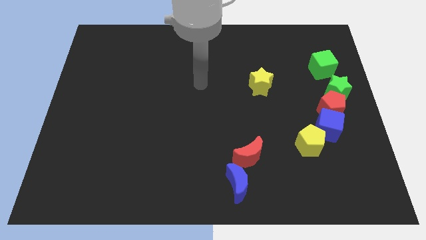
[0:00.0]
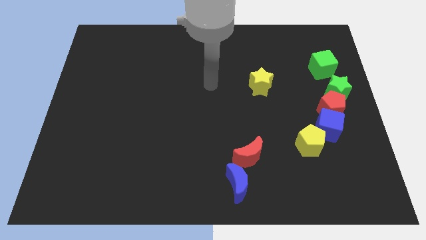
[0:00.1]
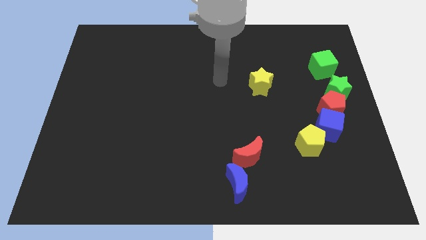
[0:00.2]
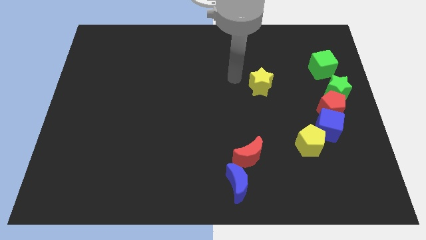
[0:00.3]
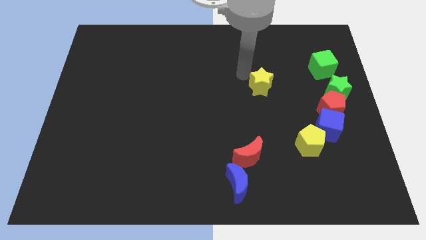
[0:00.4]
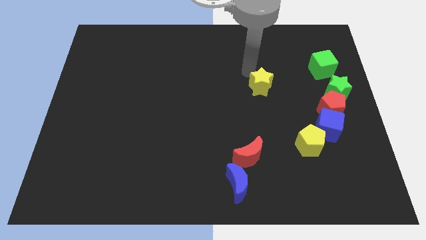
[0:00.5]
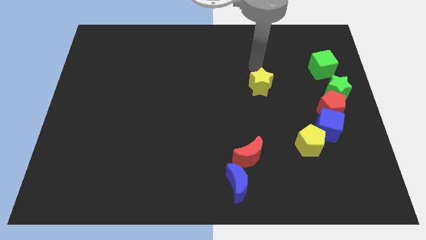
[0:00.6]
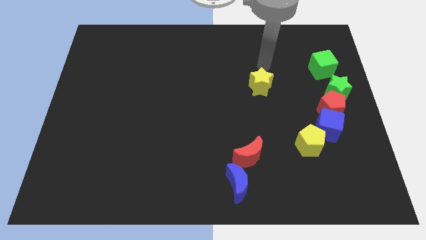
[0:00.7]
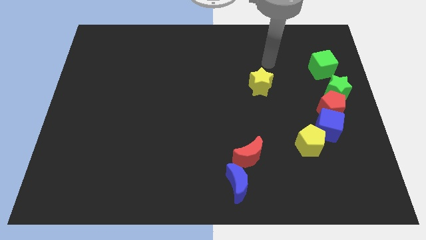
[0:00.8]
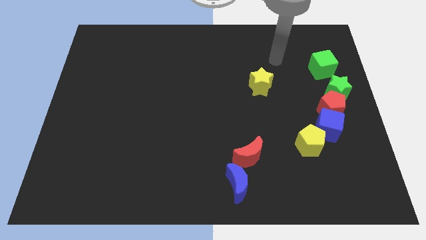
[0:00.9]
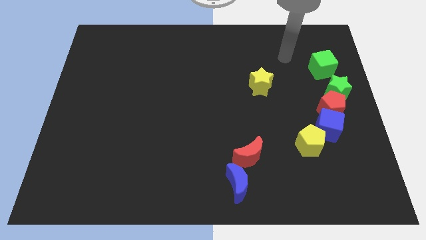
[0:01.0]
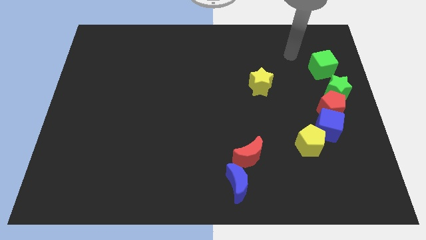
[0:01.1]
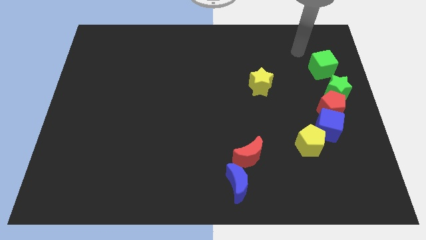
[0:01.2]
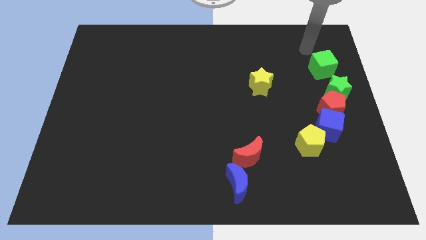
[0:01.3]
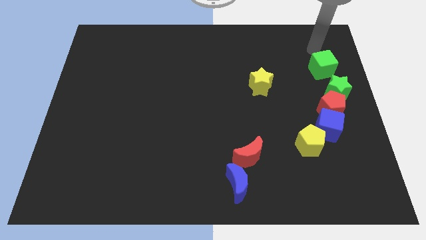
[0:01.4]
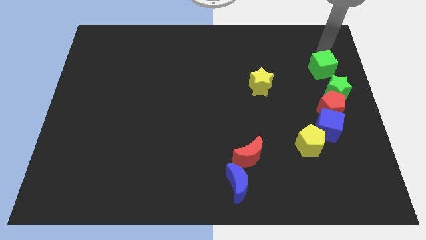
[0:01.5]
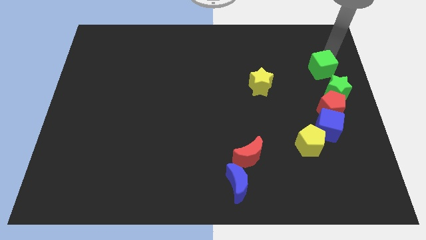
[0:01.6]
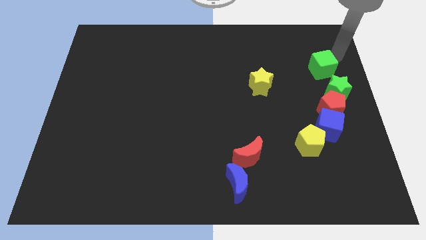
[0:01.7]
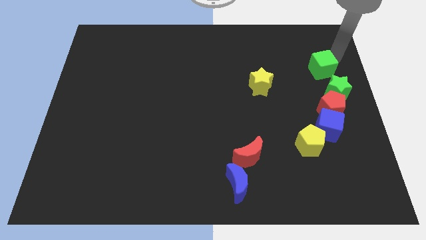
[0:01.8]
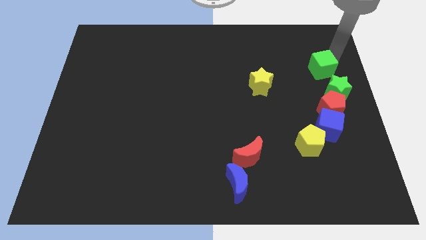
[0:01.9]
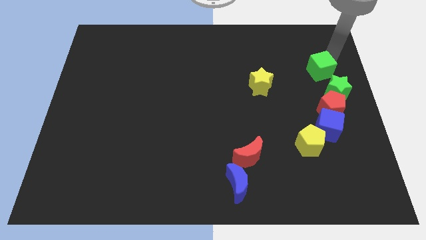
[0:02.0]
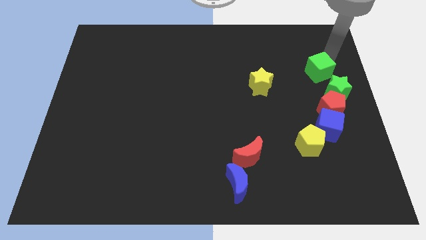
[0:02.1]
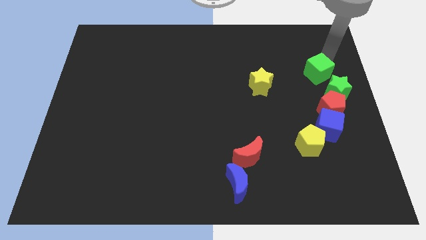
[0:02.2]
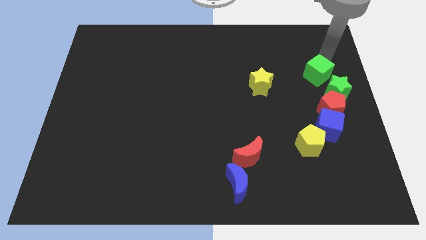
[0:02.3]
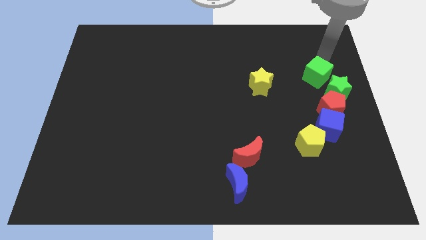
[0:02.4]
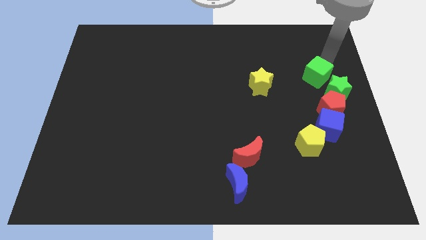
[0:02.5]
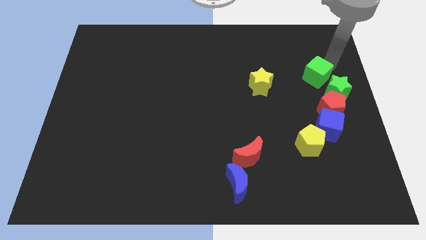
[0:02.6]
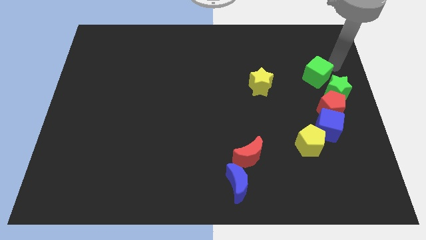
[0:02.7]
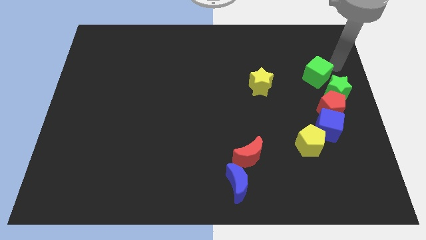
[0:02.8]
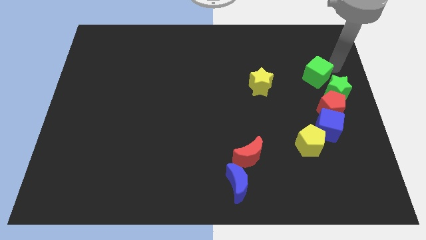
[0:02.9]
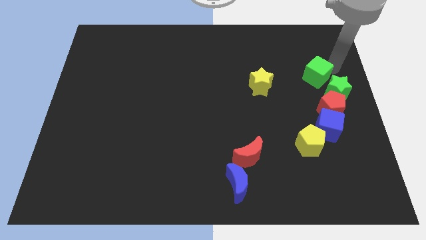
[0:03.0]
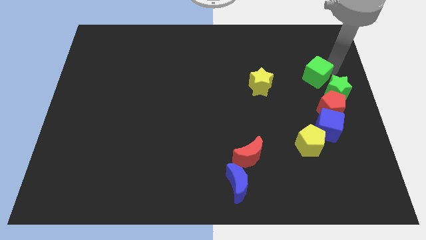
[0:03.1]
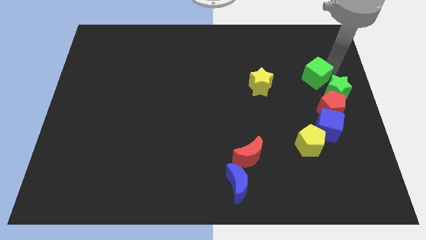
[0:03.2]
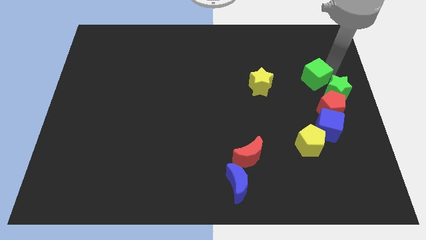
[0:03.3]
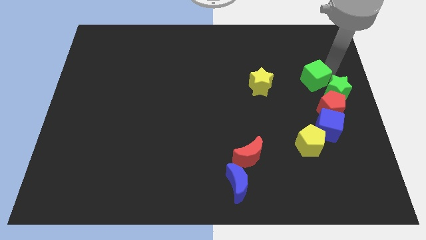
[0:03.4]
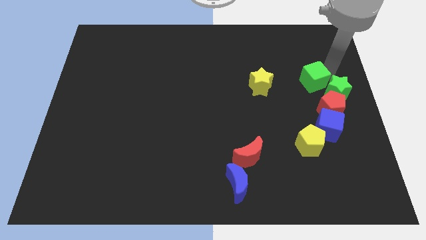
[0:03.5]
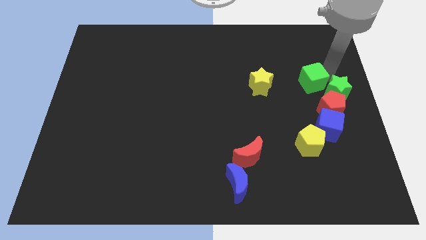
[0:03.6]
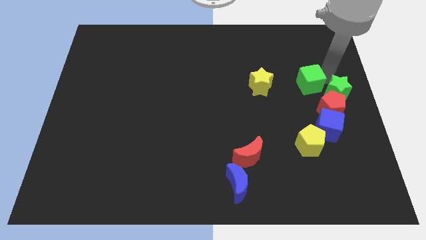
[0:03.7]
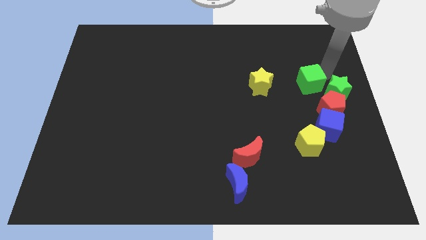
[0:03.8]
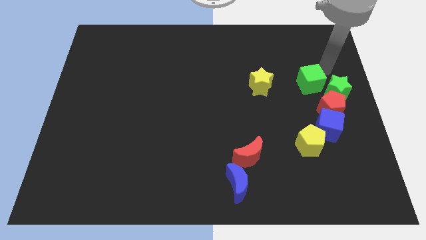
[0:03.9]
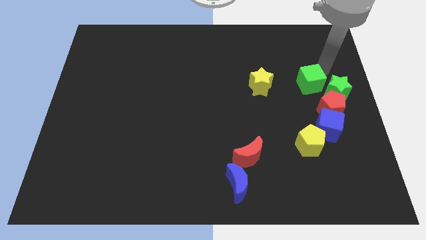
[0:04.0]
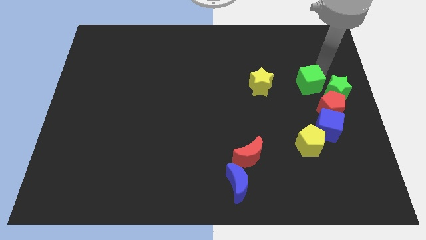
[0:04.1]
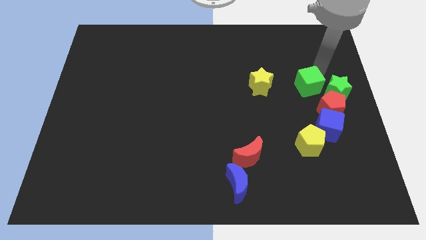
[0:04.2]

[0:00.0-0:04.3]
slightly slide the green cube down and left

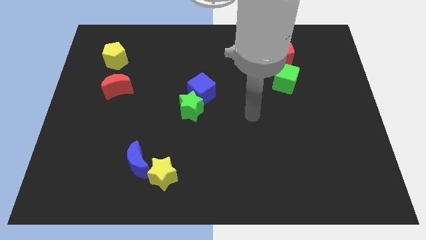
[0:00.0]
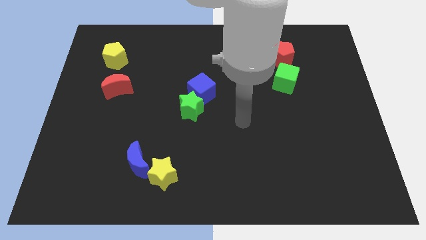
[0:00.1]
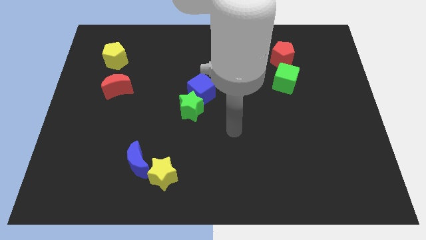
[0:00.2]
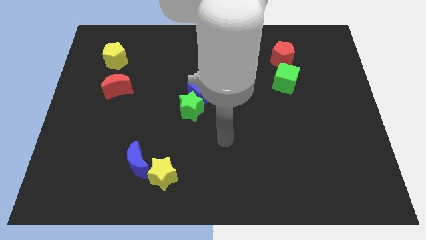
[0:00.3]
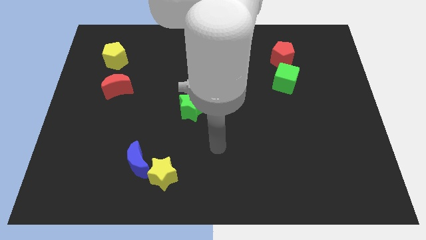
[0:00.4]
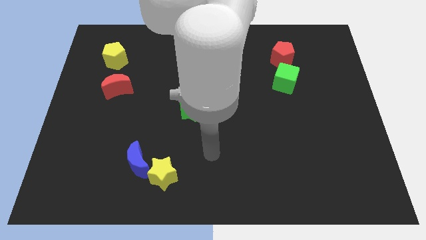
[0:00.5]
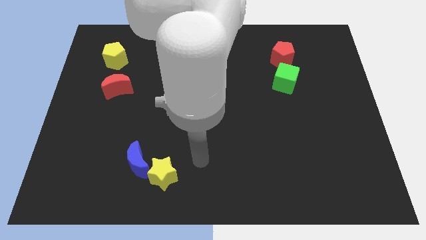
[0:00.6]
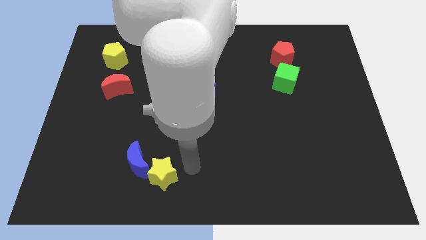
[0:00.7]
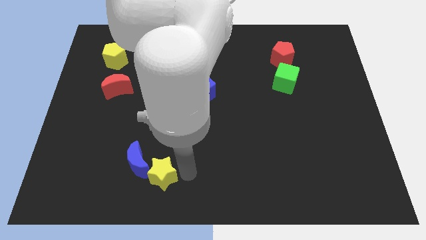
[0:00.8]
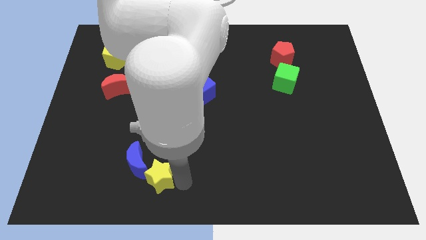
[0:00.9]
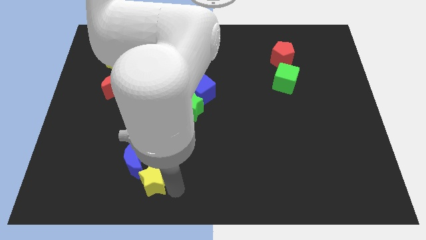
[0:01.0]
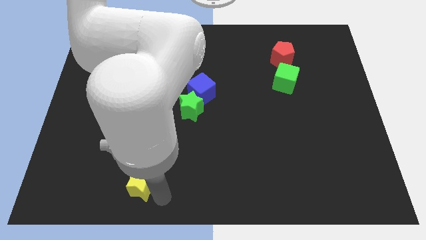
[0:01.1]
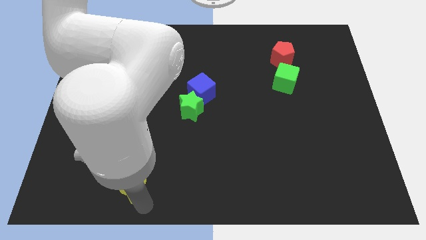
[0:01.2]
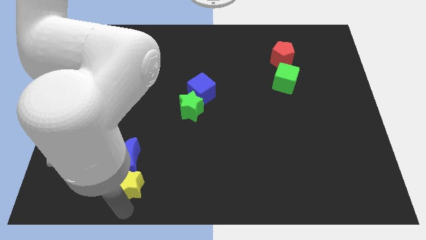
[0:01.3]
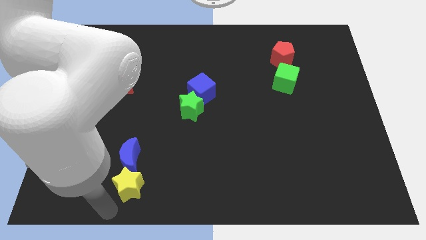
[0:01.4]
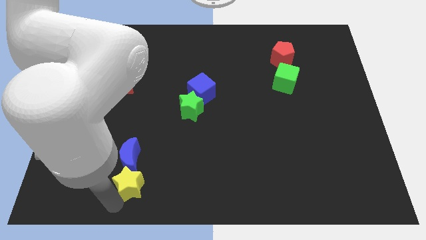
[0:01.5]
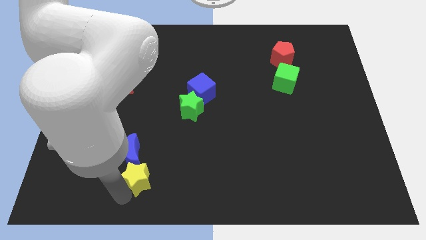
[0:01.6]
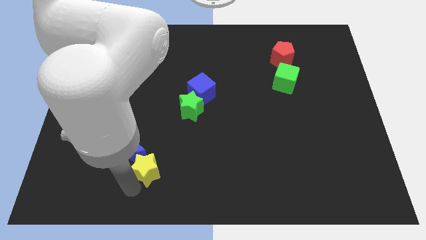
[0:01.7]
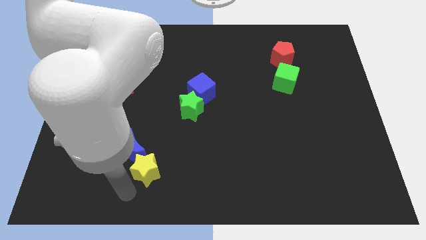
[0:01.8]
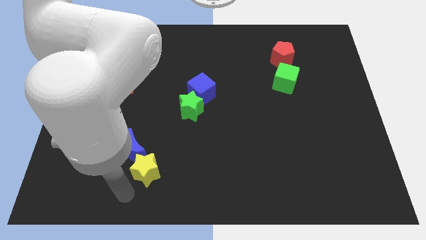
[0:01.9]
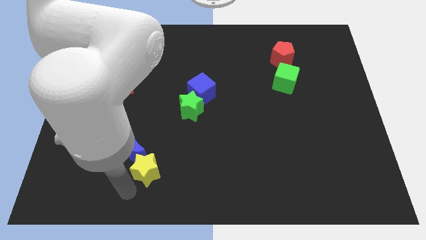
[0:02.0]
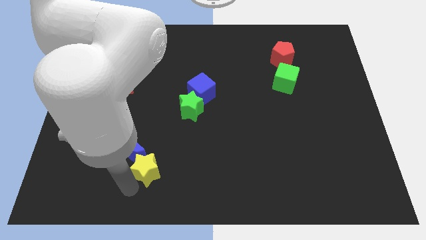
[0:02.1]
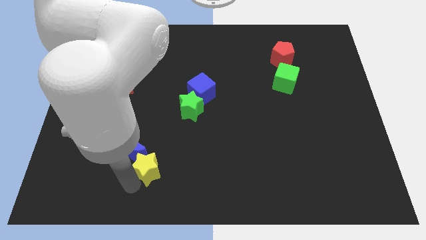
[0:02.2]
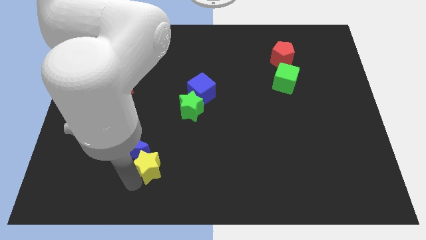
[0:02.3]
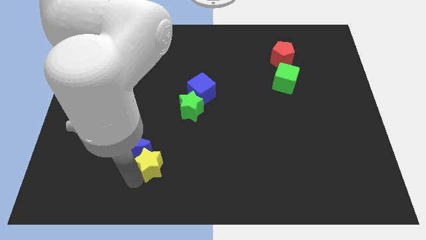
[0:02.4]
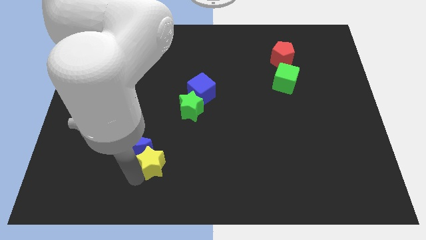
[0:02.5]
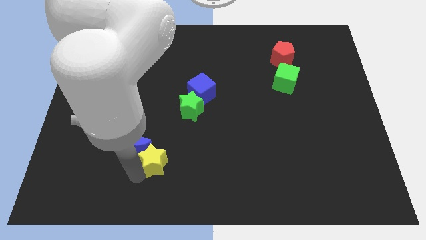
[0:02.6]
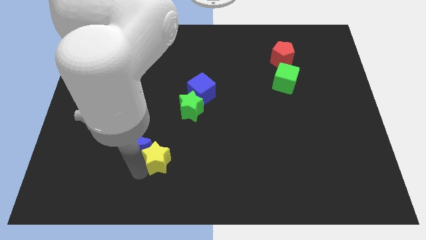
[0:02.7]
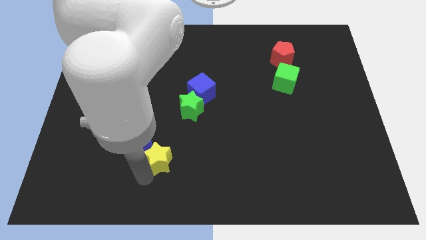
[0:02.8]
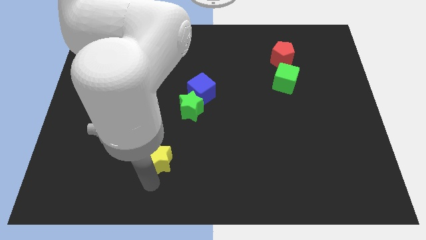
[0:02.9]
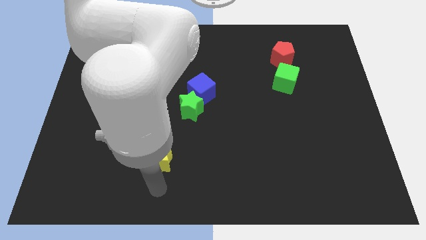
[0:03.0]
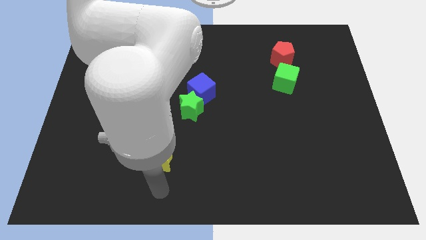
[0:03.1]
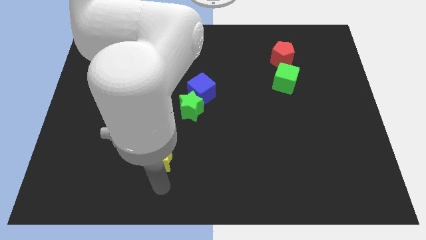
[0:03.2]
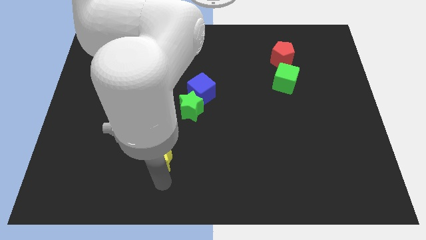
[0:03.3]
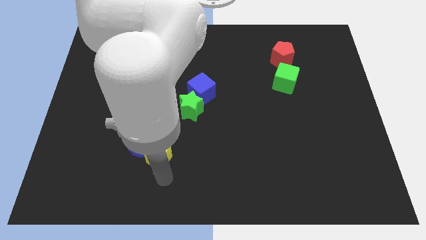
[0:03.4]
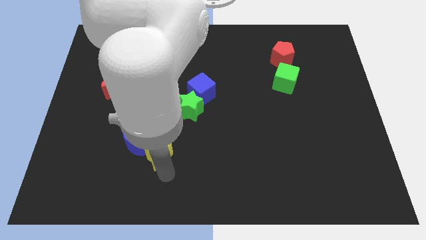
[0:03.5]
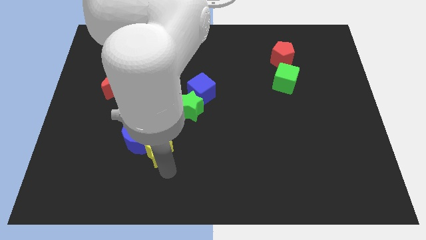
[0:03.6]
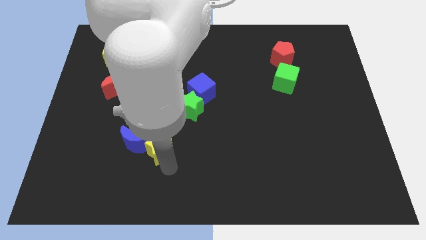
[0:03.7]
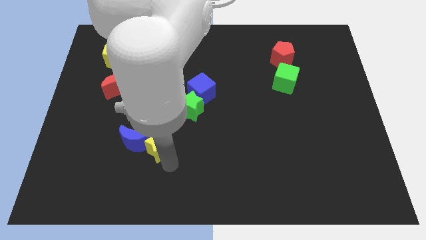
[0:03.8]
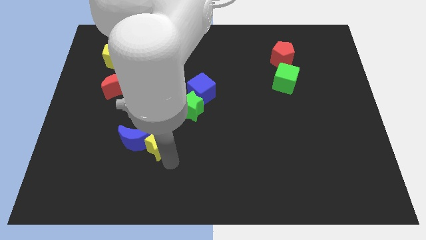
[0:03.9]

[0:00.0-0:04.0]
move the yellow star a bit up
